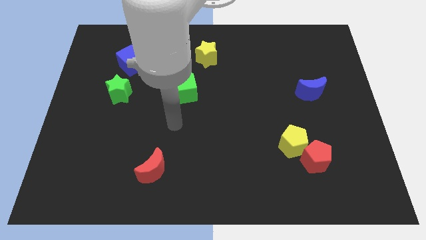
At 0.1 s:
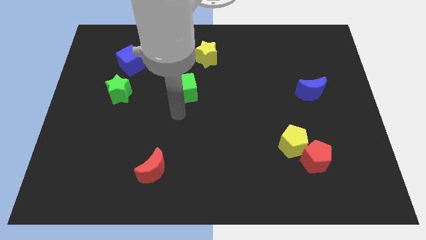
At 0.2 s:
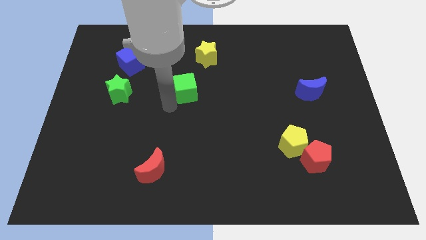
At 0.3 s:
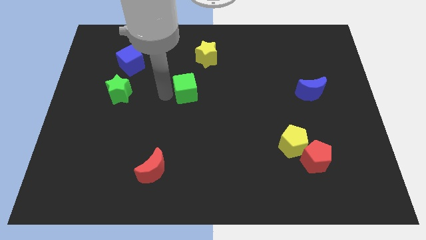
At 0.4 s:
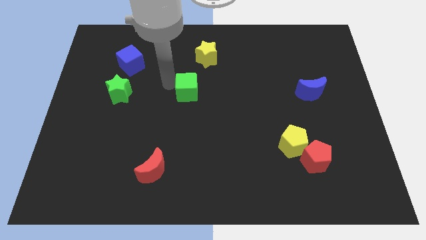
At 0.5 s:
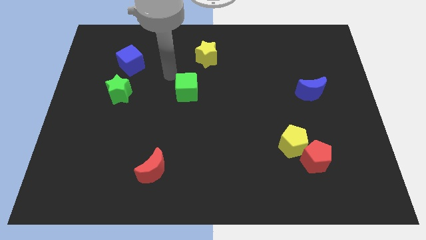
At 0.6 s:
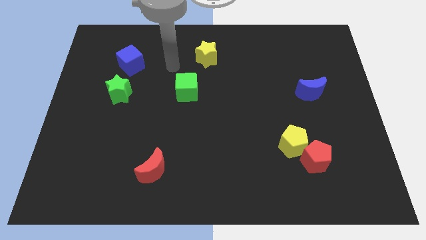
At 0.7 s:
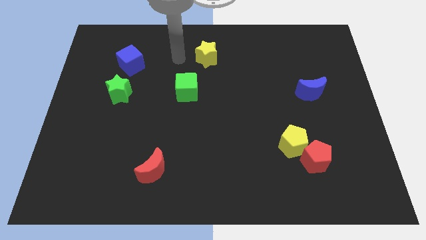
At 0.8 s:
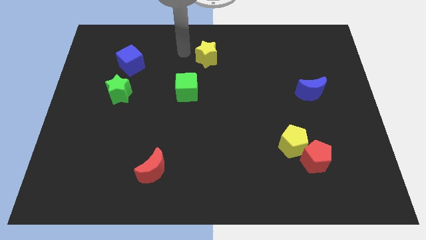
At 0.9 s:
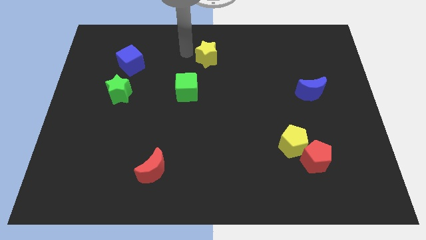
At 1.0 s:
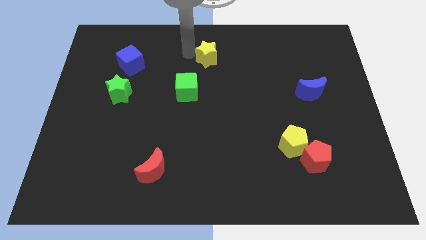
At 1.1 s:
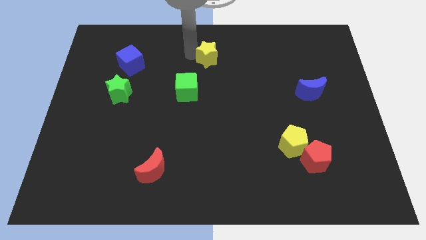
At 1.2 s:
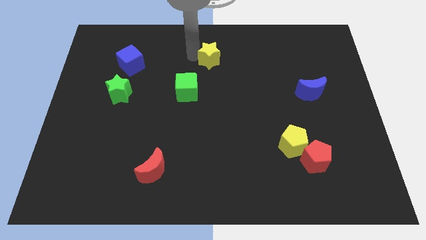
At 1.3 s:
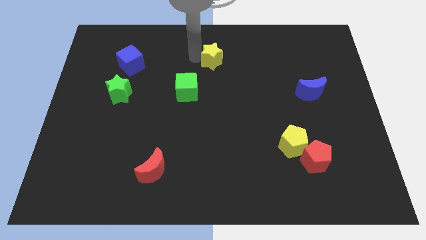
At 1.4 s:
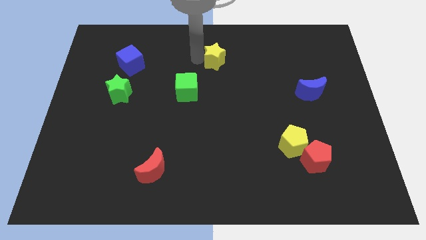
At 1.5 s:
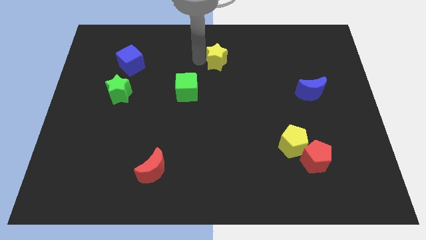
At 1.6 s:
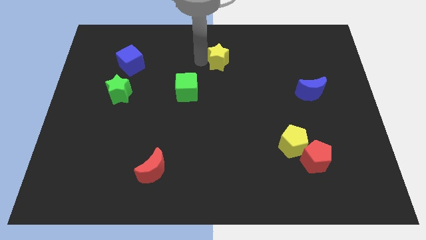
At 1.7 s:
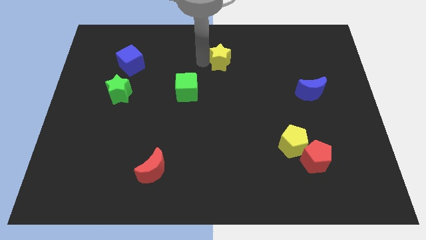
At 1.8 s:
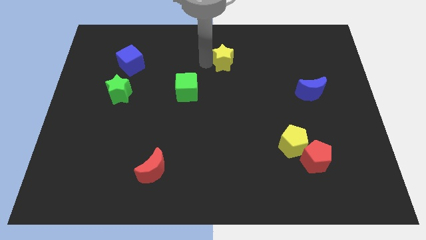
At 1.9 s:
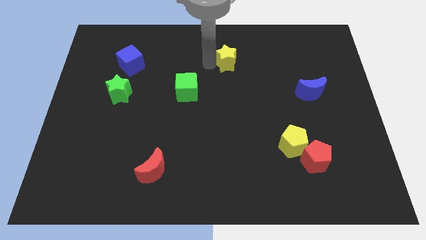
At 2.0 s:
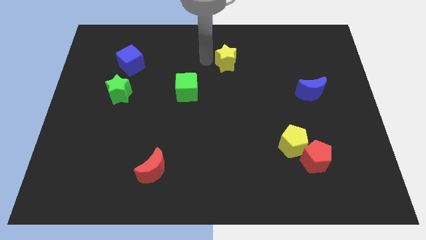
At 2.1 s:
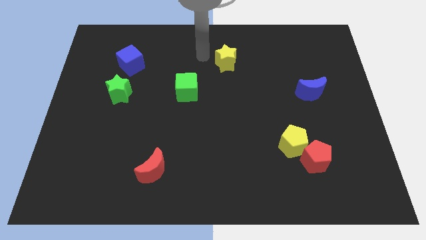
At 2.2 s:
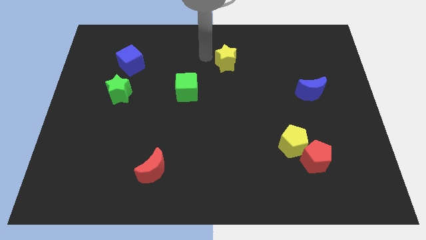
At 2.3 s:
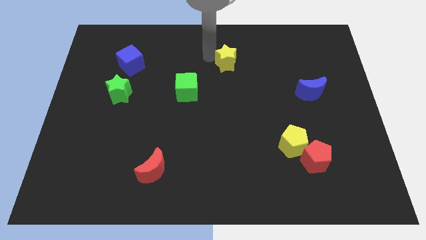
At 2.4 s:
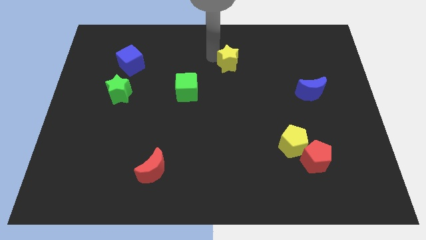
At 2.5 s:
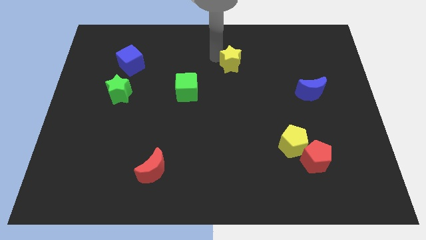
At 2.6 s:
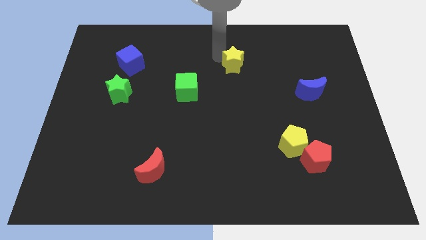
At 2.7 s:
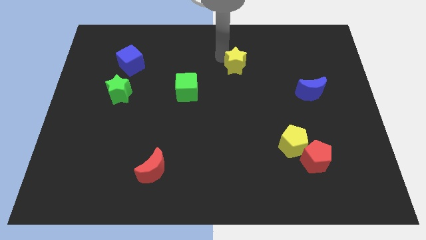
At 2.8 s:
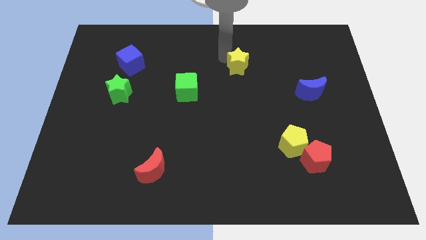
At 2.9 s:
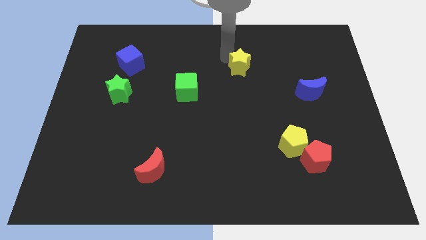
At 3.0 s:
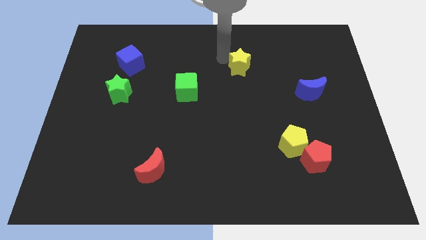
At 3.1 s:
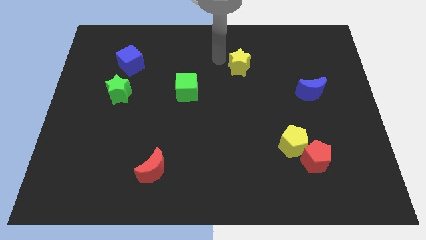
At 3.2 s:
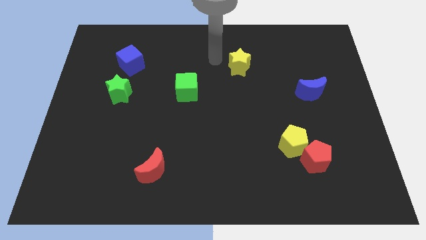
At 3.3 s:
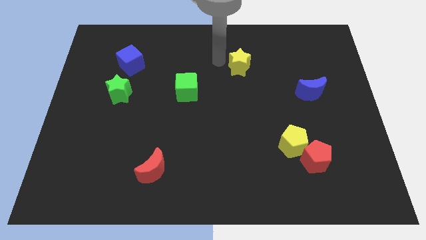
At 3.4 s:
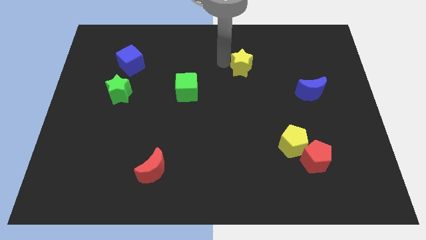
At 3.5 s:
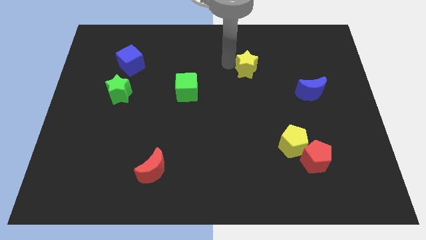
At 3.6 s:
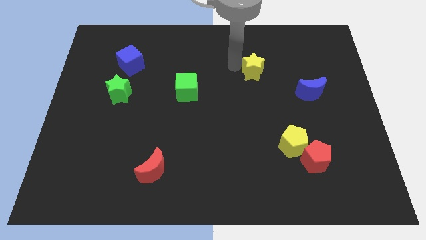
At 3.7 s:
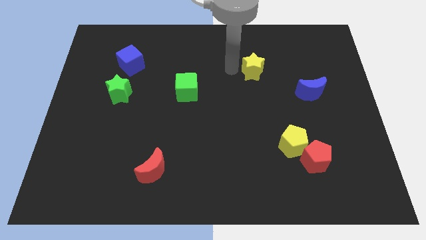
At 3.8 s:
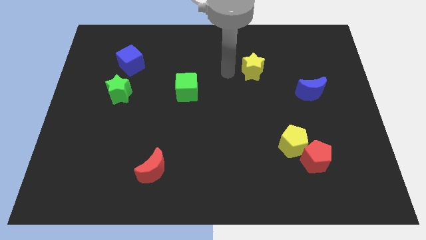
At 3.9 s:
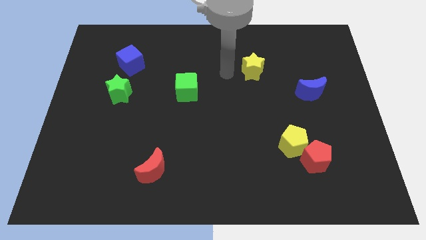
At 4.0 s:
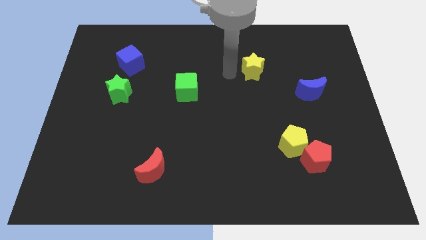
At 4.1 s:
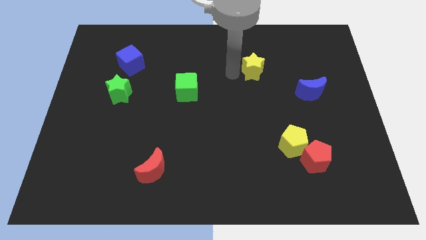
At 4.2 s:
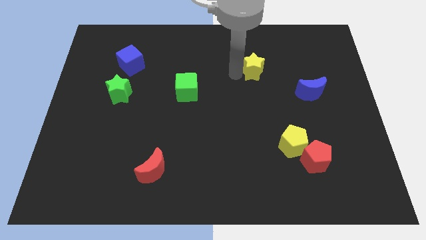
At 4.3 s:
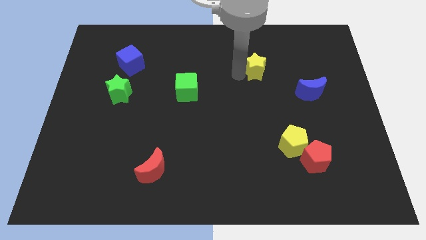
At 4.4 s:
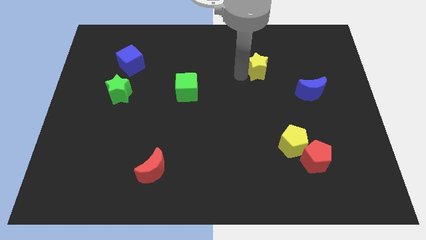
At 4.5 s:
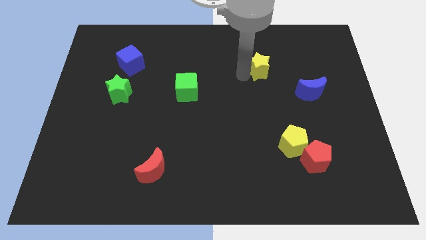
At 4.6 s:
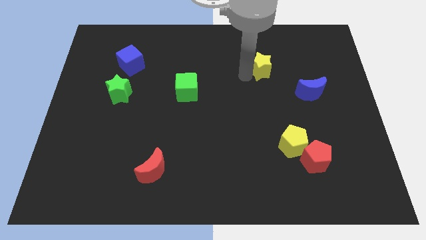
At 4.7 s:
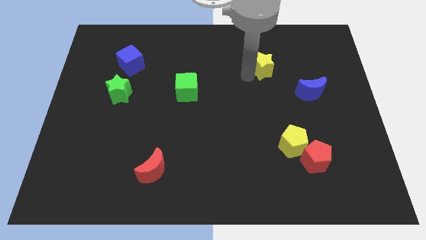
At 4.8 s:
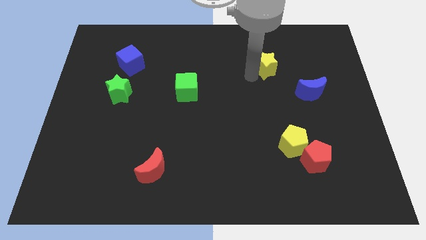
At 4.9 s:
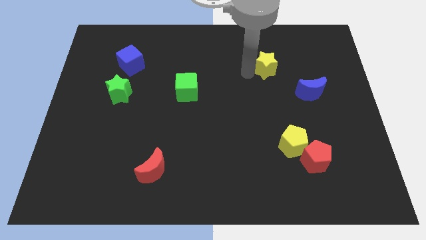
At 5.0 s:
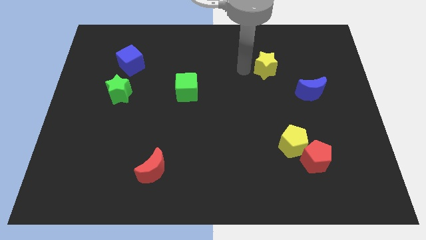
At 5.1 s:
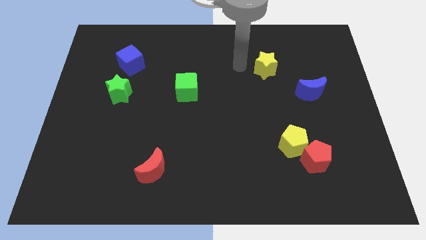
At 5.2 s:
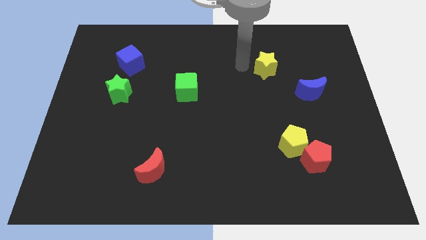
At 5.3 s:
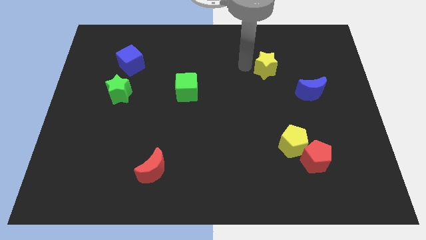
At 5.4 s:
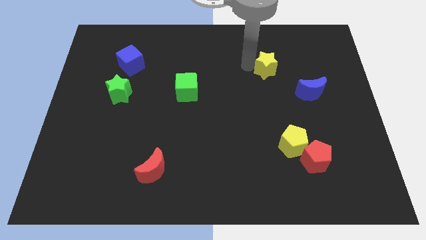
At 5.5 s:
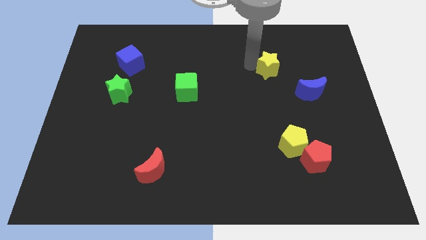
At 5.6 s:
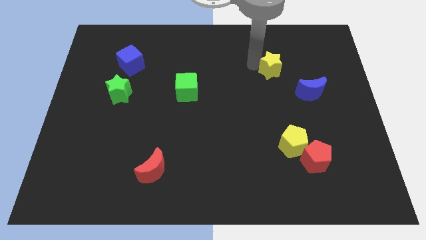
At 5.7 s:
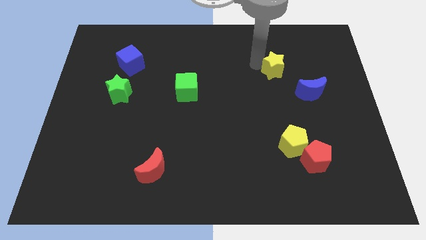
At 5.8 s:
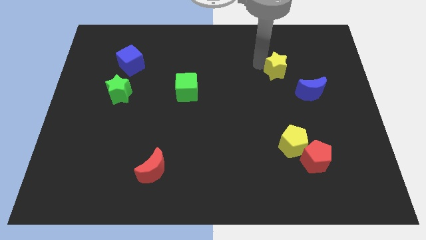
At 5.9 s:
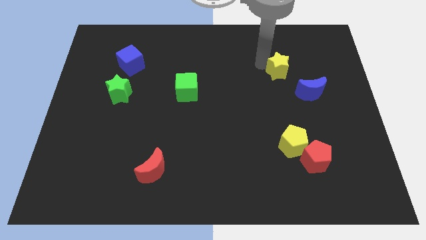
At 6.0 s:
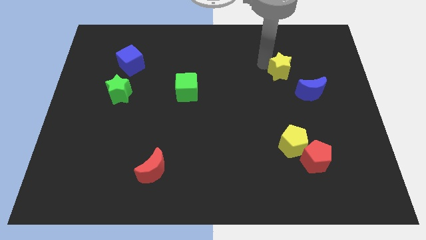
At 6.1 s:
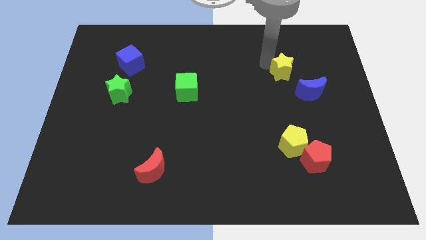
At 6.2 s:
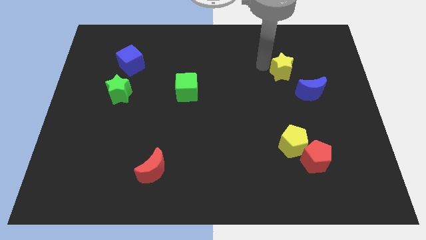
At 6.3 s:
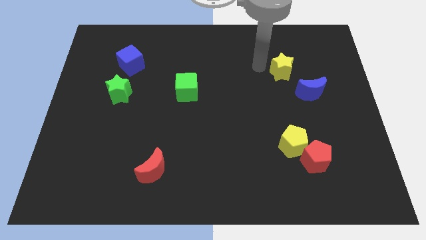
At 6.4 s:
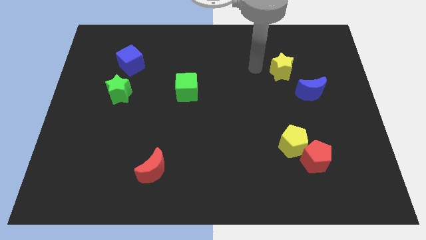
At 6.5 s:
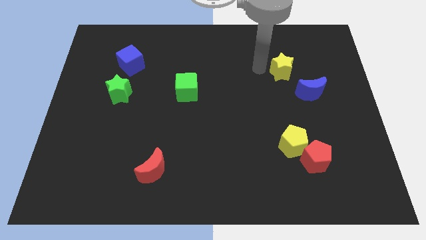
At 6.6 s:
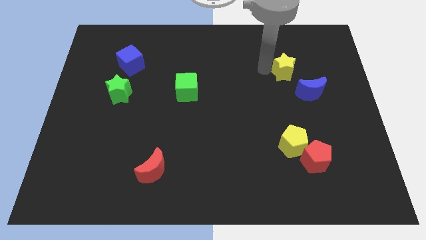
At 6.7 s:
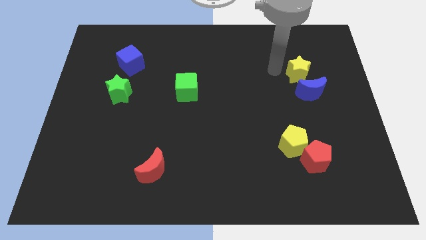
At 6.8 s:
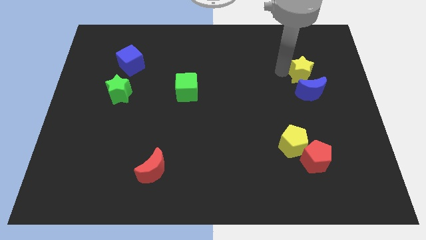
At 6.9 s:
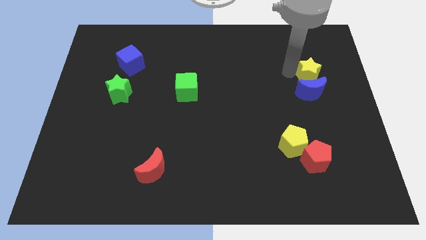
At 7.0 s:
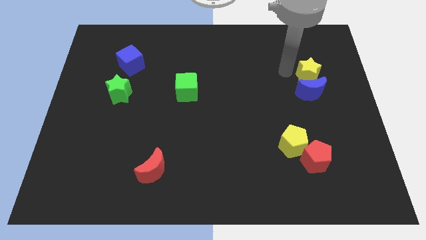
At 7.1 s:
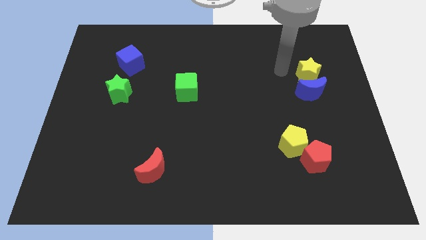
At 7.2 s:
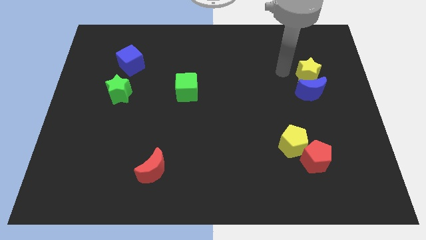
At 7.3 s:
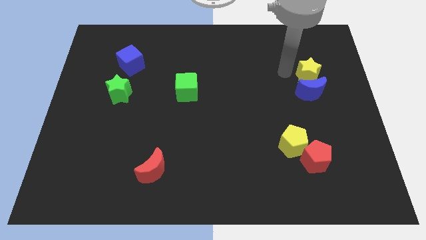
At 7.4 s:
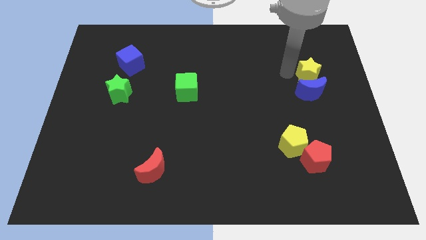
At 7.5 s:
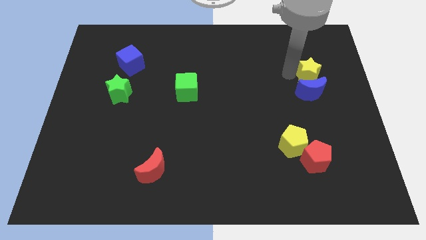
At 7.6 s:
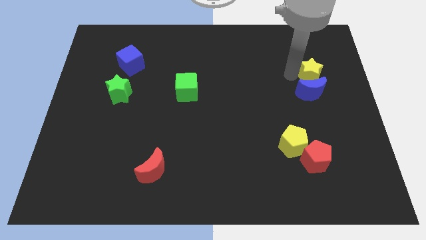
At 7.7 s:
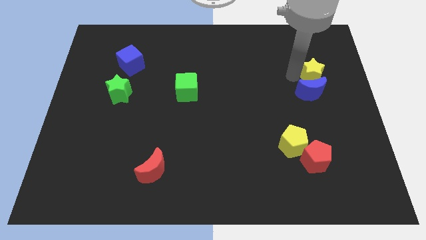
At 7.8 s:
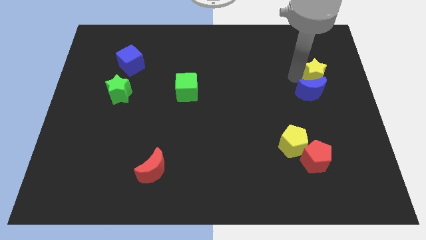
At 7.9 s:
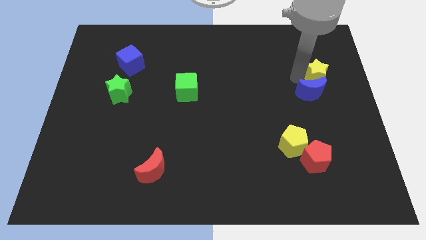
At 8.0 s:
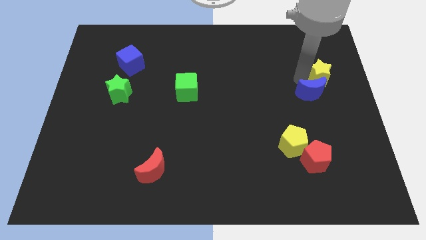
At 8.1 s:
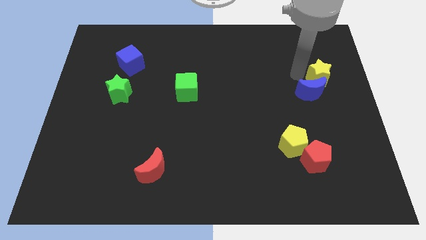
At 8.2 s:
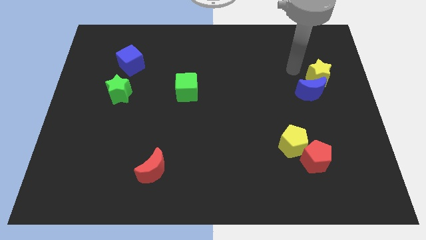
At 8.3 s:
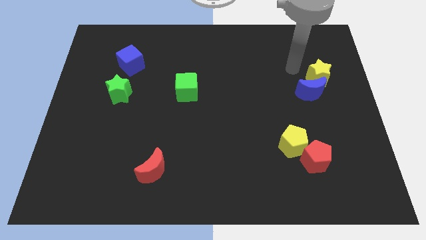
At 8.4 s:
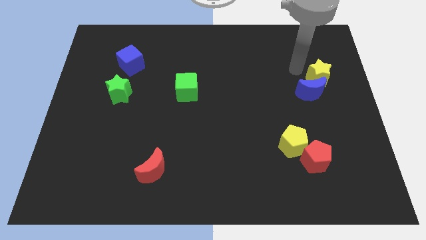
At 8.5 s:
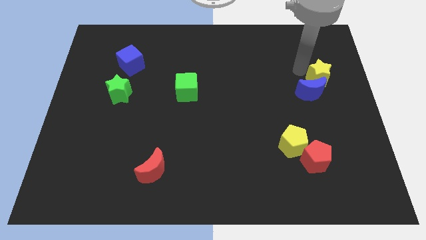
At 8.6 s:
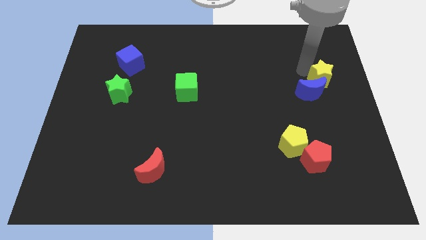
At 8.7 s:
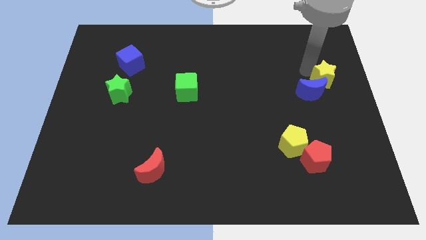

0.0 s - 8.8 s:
push the yellow star to the center right
